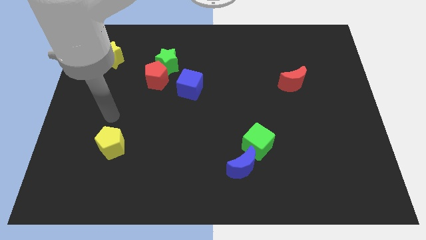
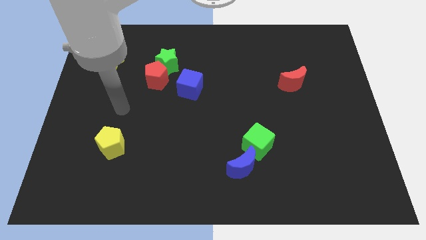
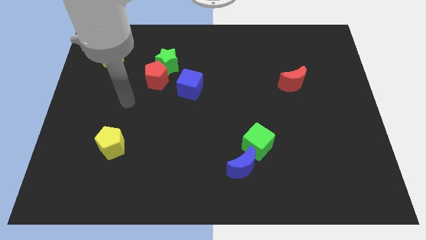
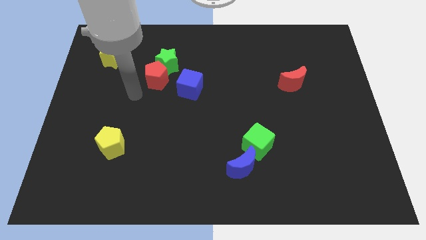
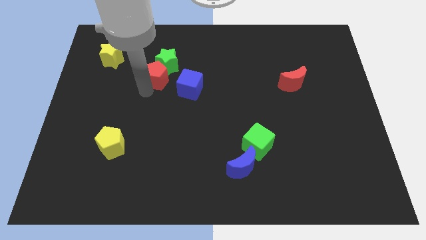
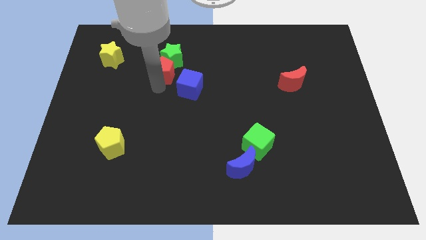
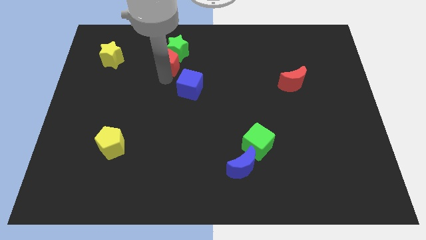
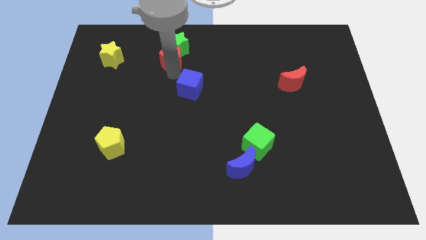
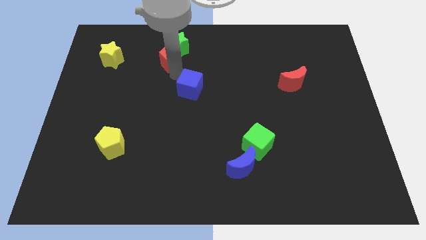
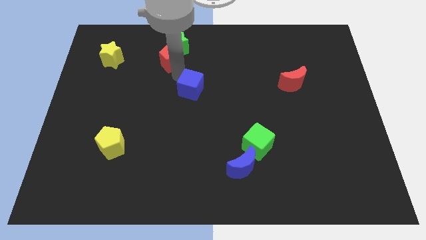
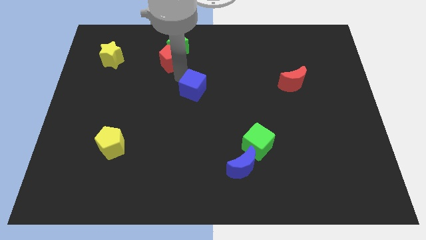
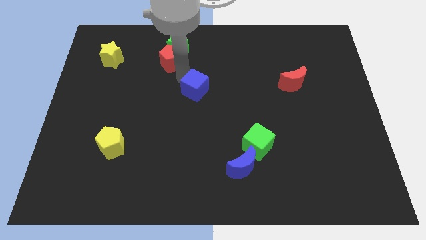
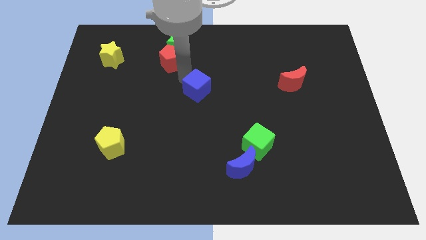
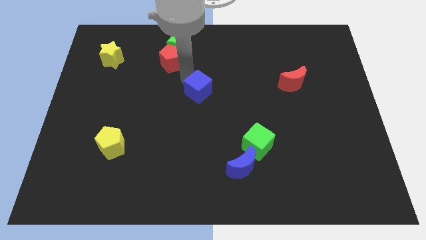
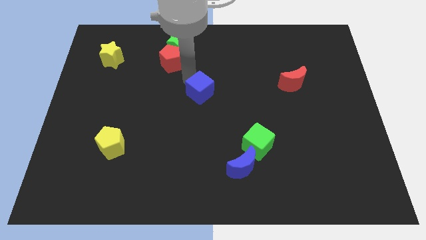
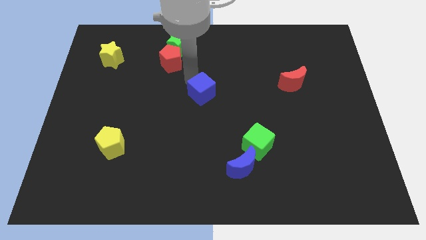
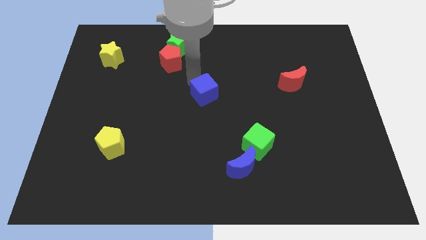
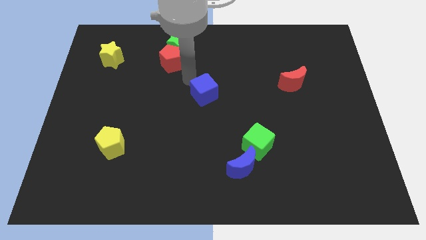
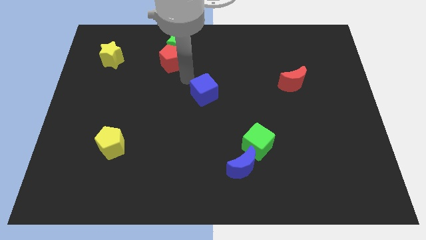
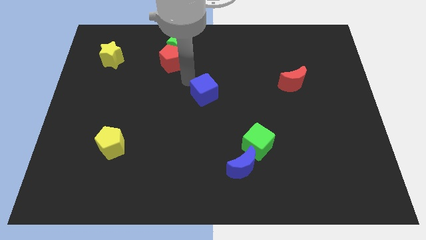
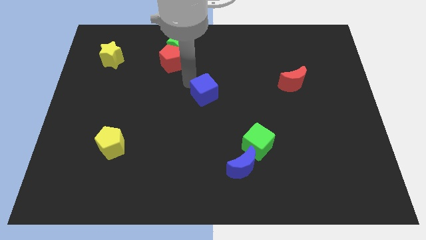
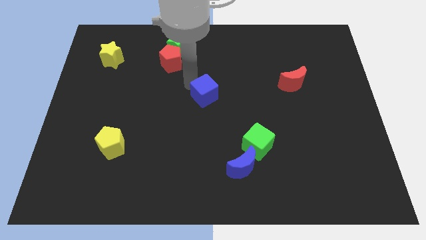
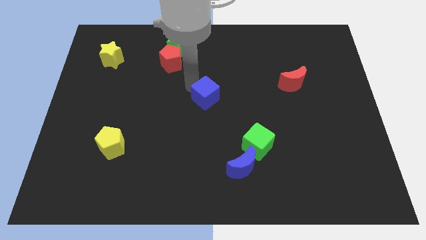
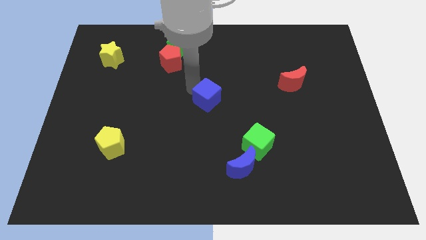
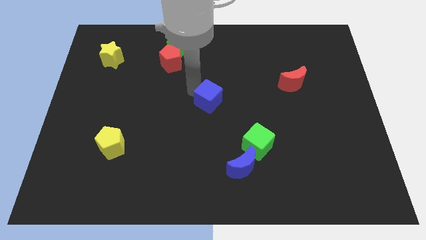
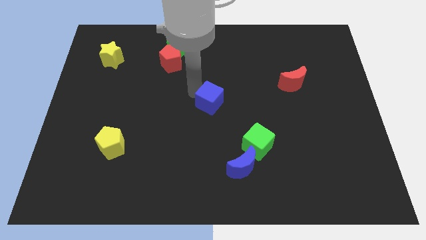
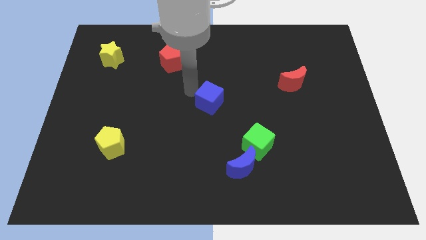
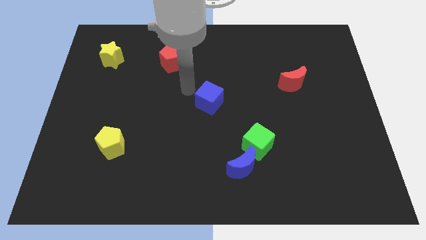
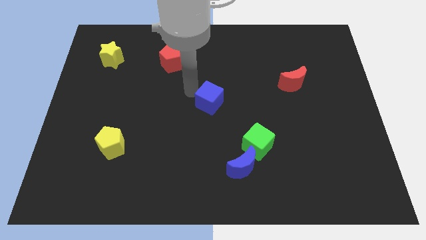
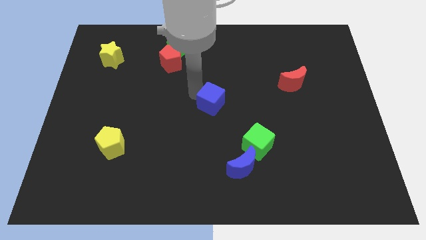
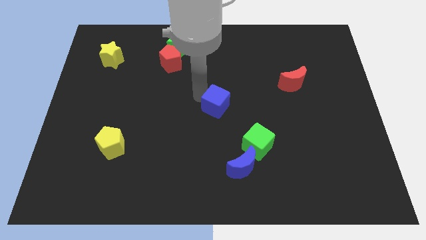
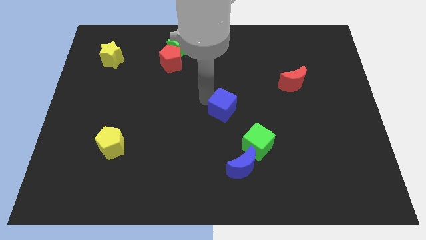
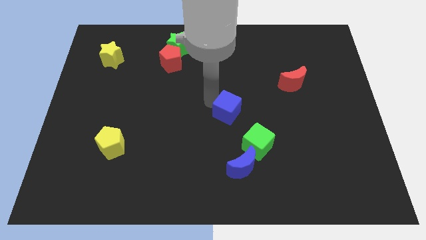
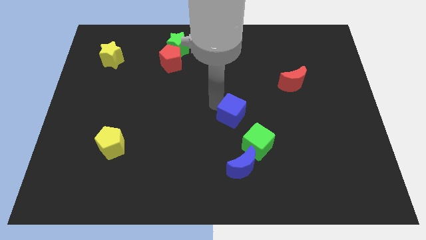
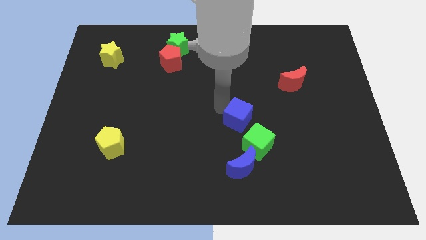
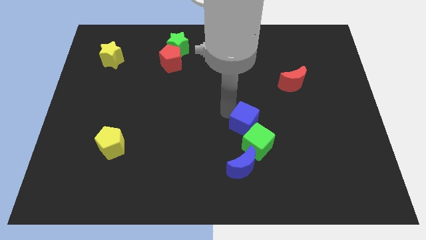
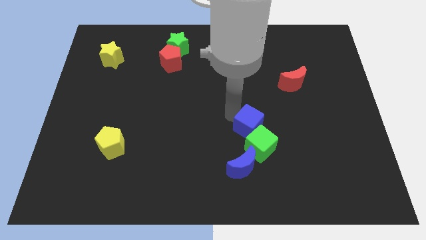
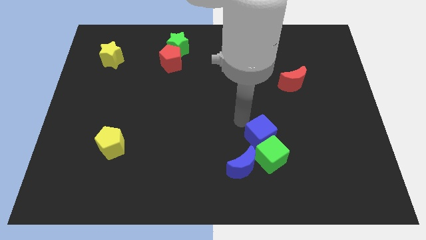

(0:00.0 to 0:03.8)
move the blue cube down and to the right

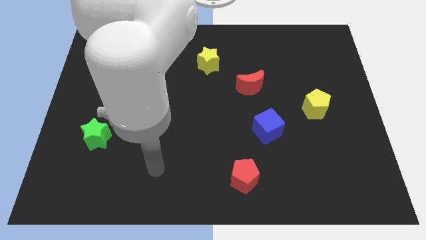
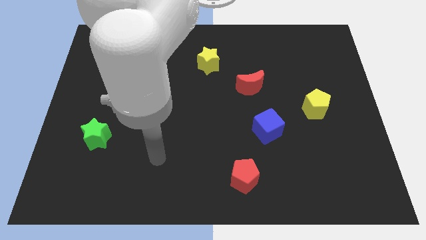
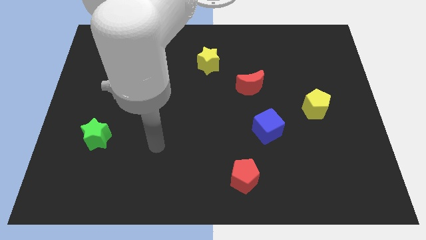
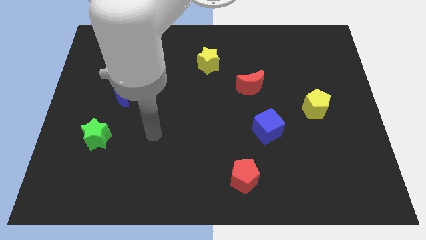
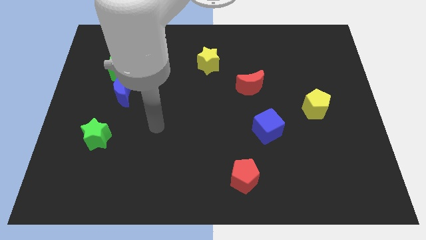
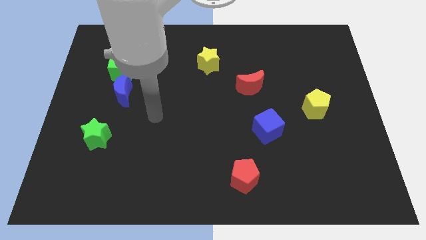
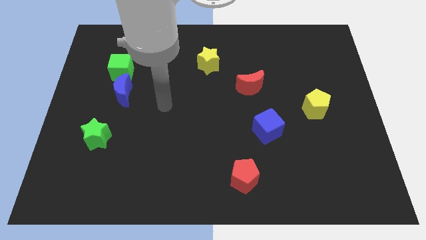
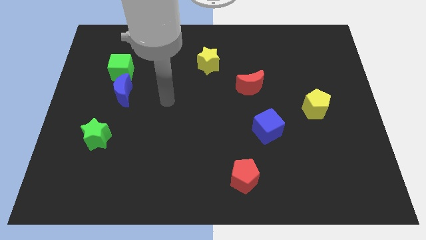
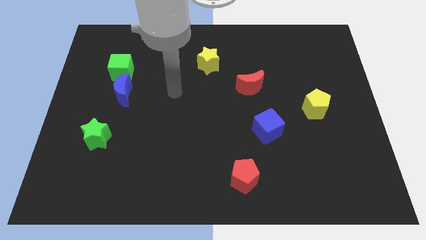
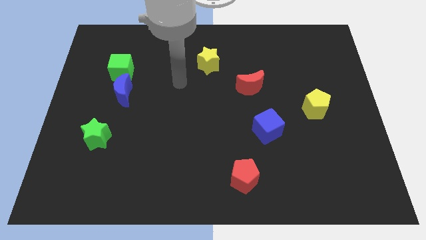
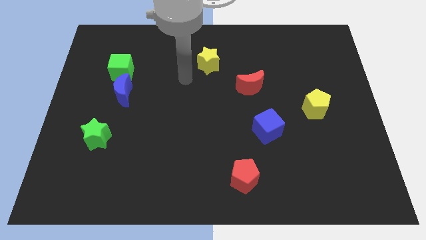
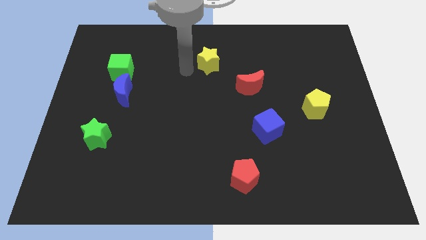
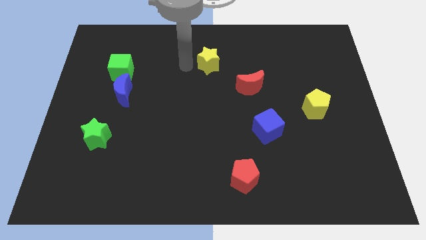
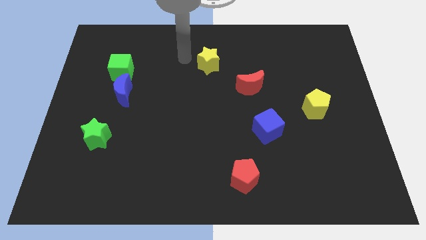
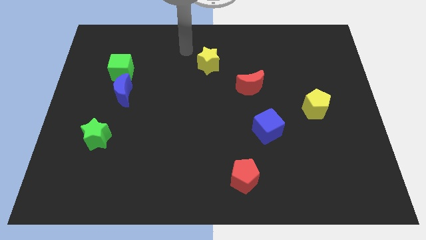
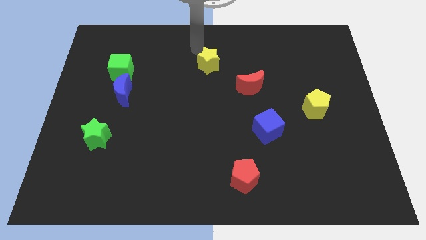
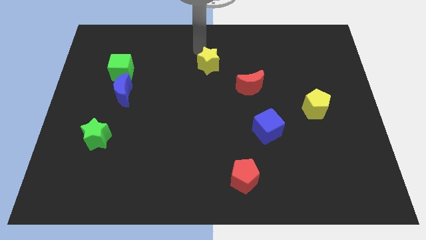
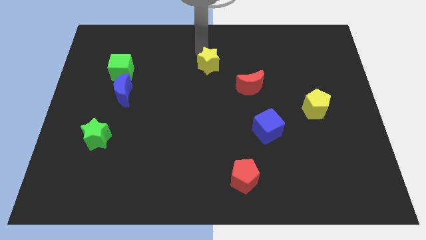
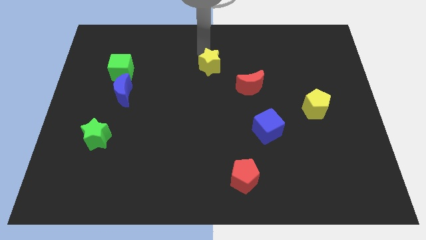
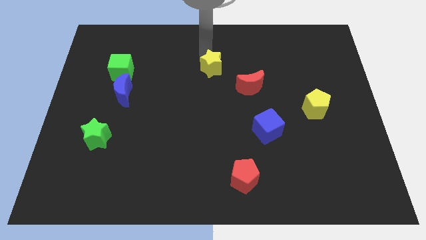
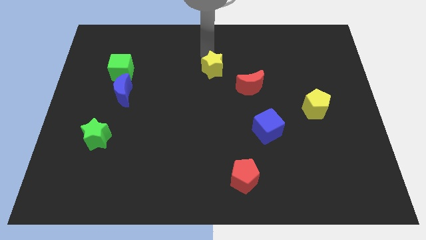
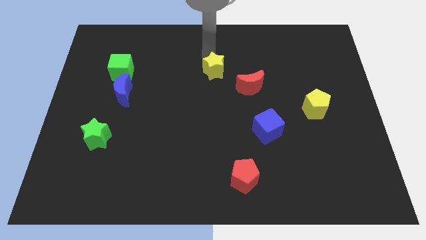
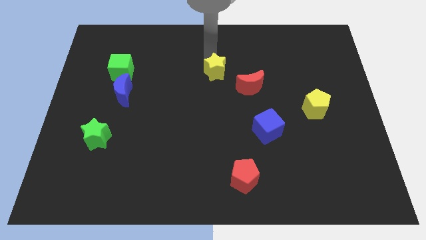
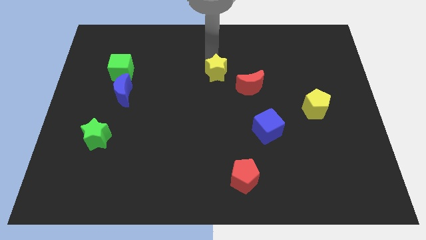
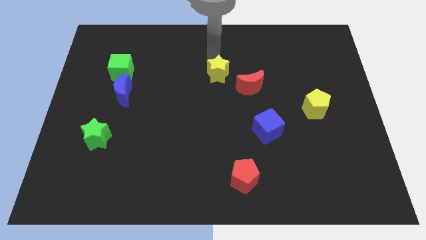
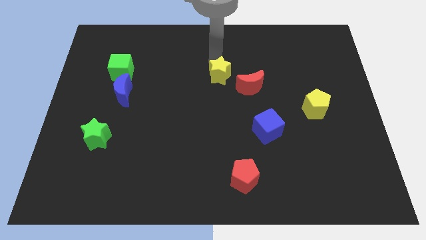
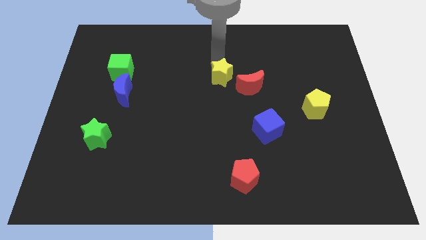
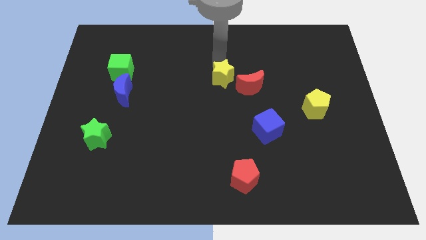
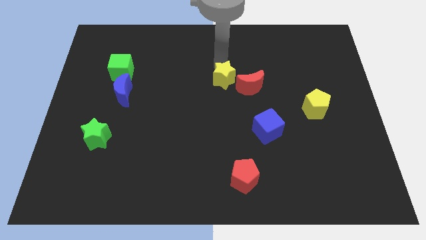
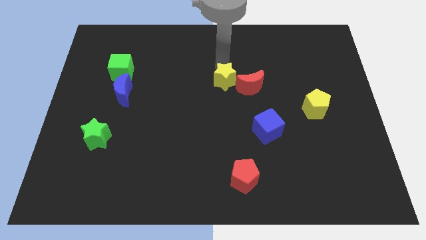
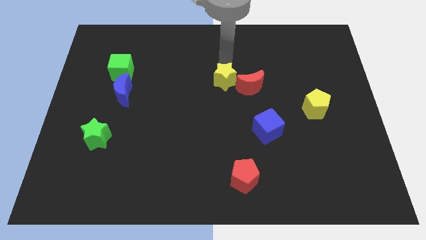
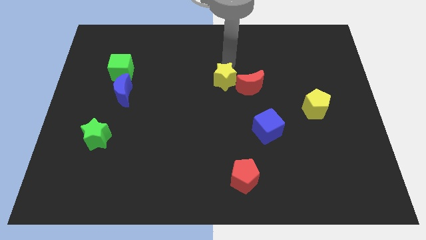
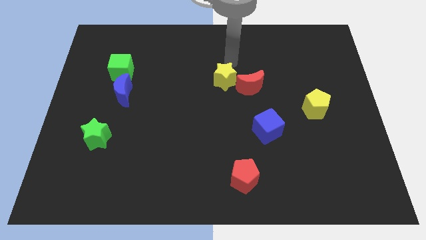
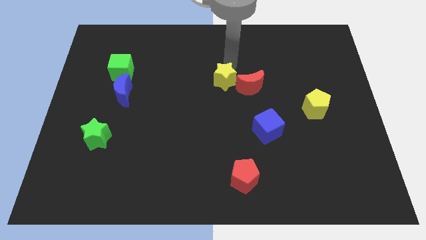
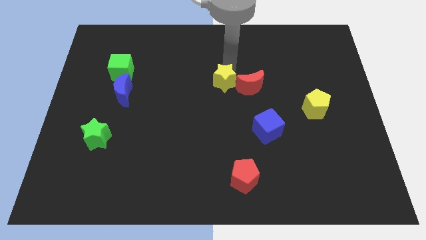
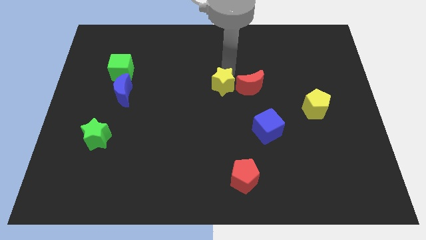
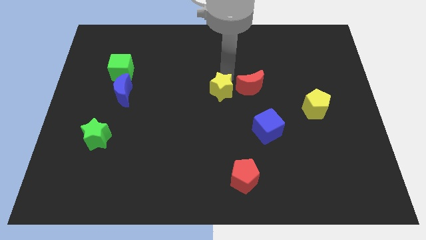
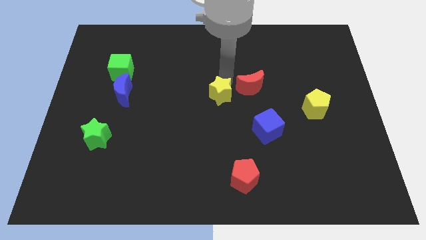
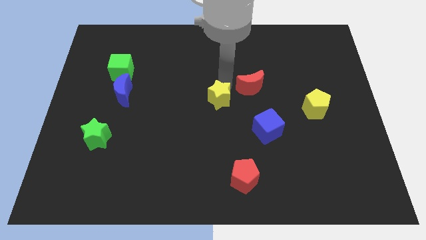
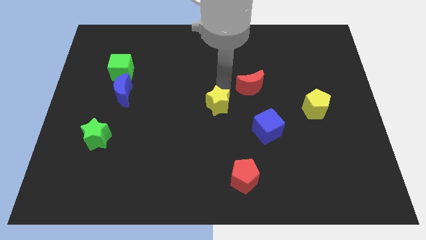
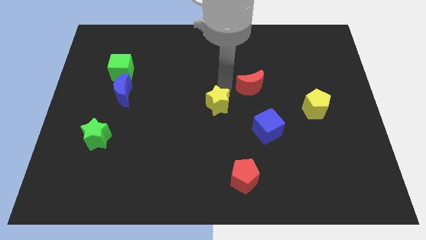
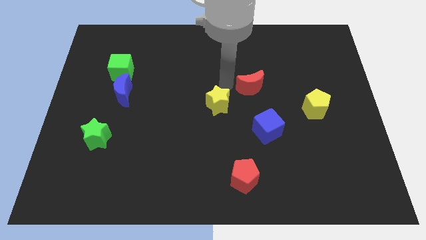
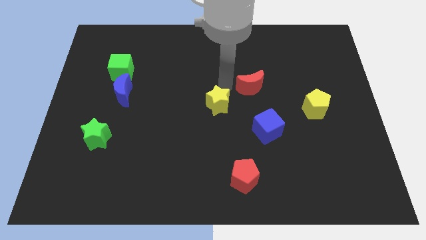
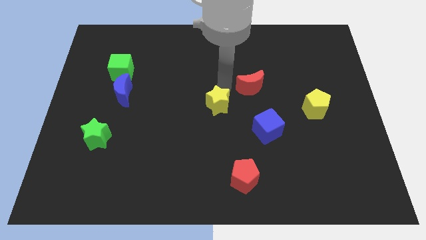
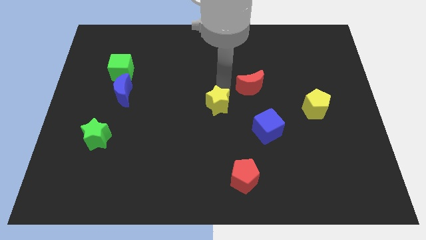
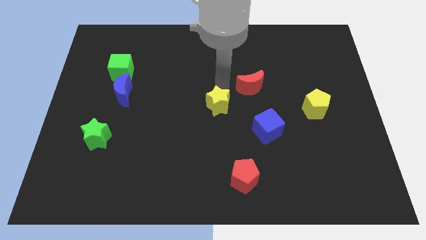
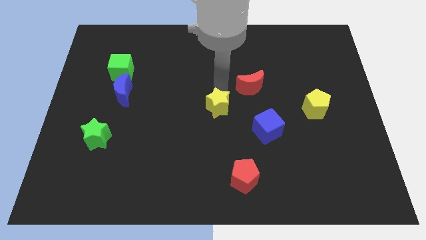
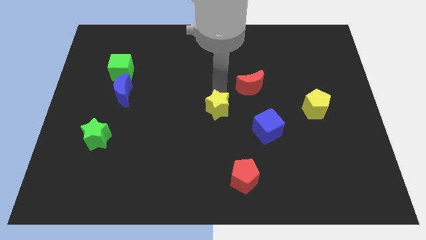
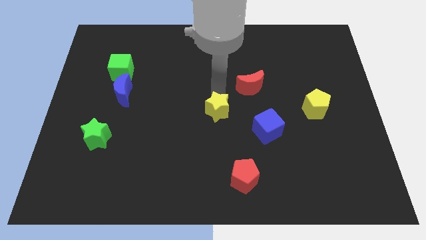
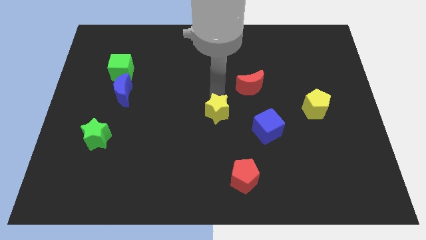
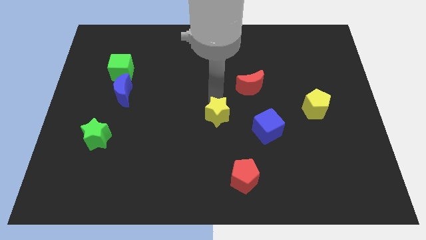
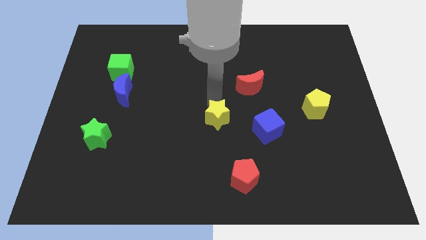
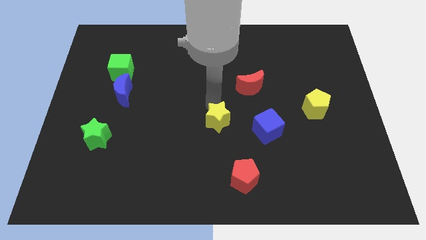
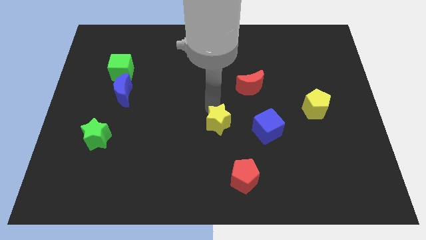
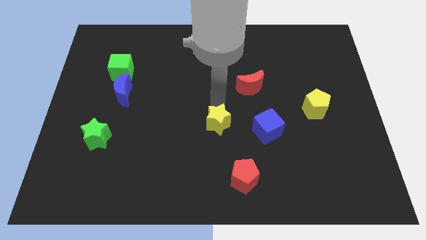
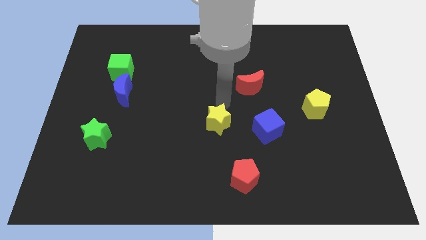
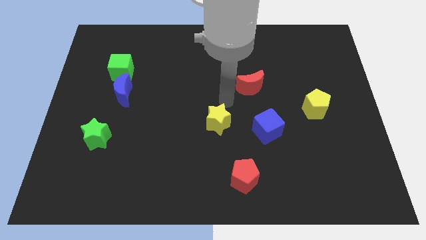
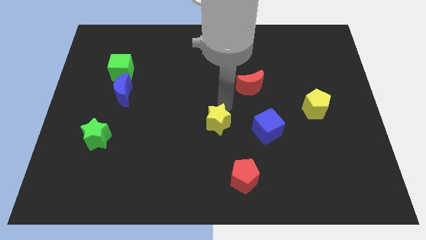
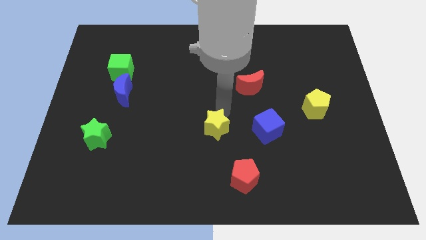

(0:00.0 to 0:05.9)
move the yellow star down
